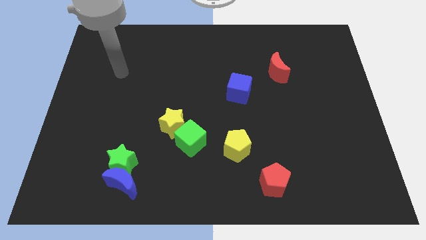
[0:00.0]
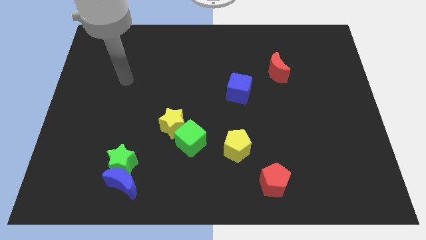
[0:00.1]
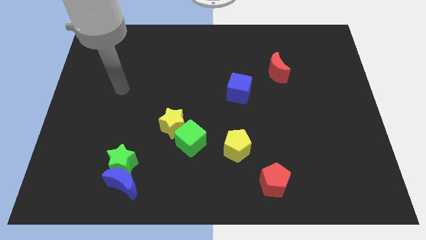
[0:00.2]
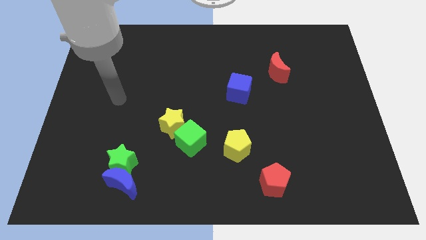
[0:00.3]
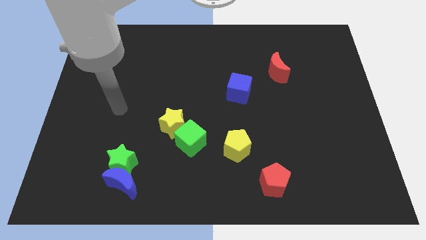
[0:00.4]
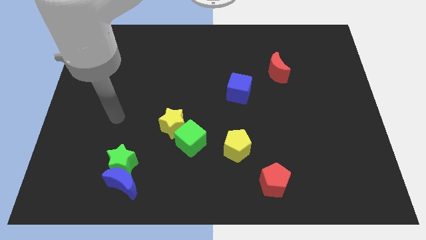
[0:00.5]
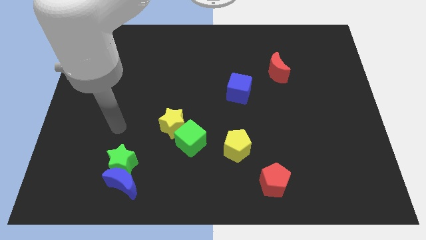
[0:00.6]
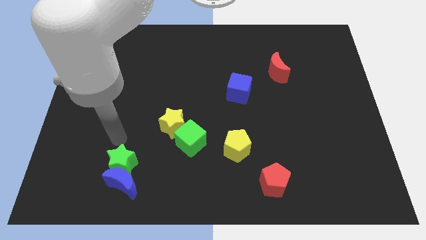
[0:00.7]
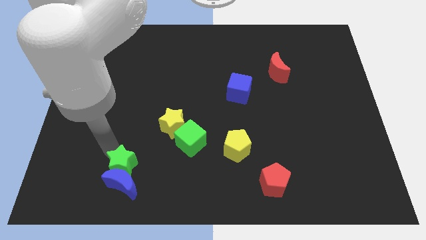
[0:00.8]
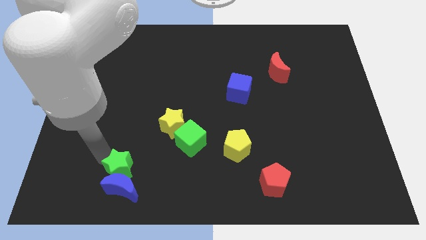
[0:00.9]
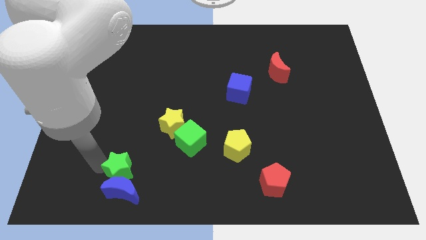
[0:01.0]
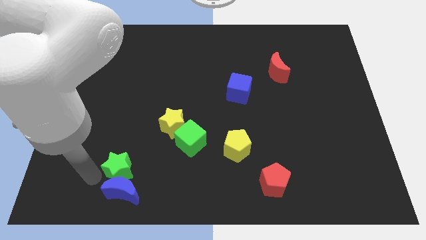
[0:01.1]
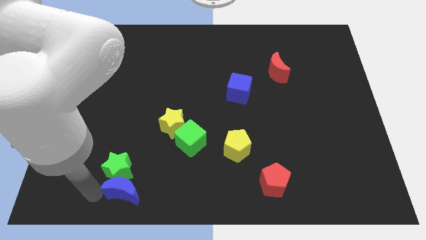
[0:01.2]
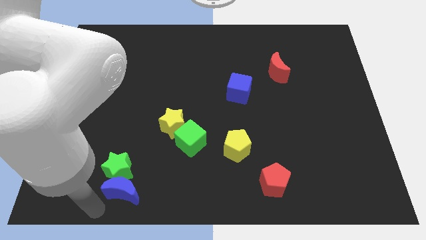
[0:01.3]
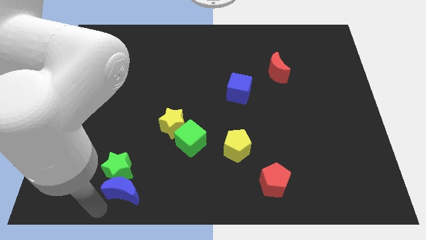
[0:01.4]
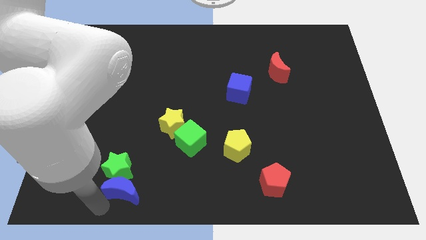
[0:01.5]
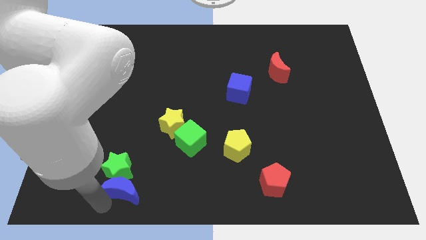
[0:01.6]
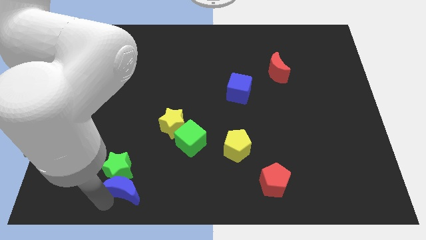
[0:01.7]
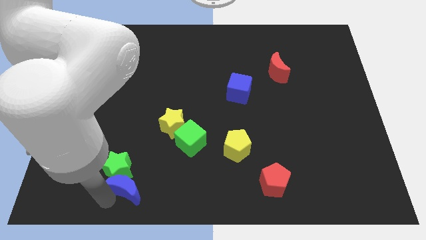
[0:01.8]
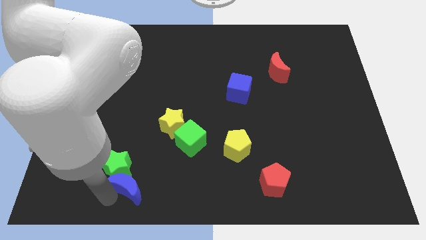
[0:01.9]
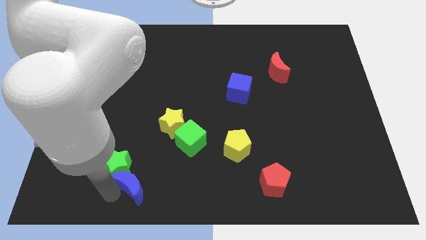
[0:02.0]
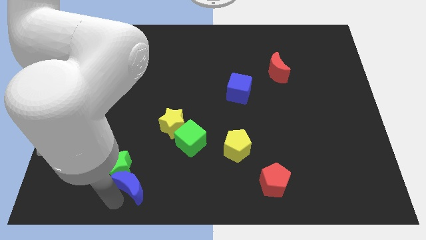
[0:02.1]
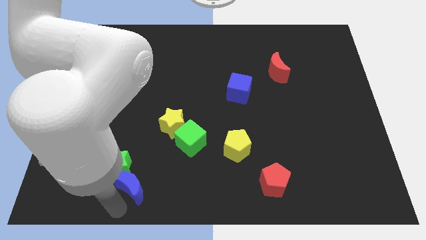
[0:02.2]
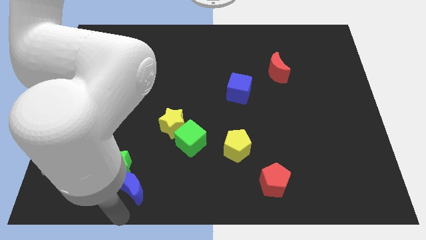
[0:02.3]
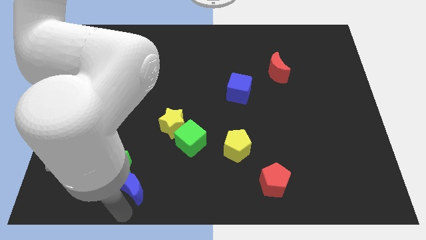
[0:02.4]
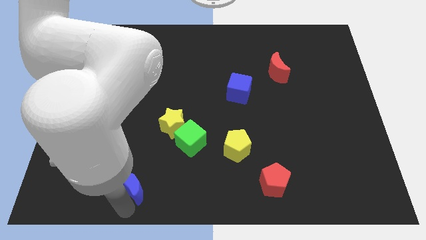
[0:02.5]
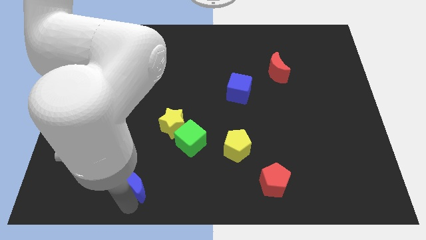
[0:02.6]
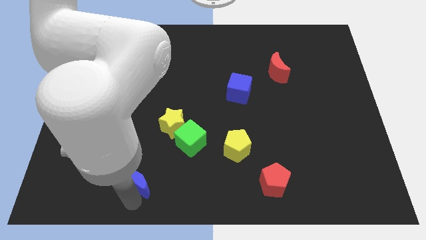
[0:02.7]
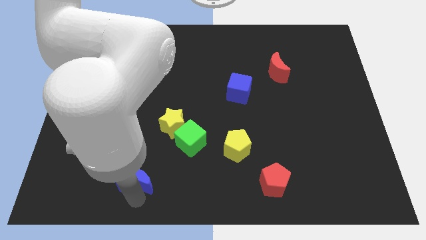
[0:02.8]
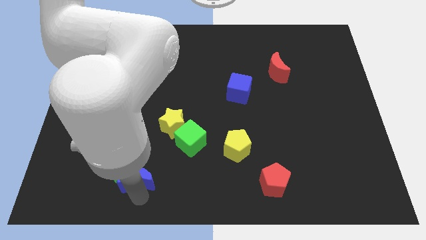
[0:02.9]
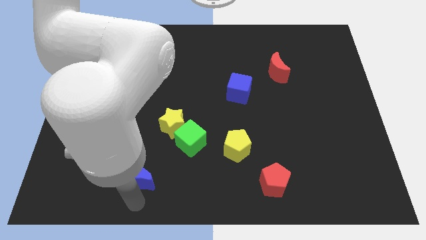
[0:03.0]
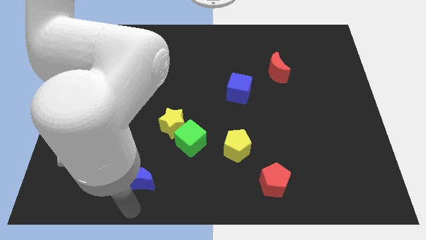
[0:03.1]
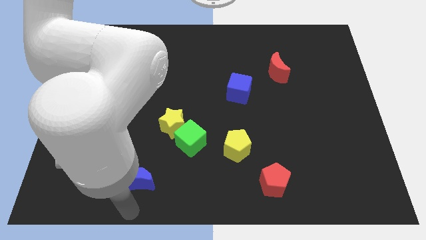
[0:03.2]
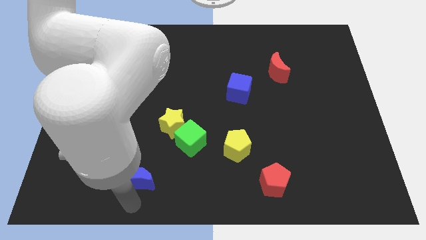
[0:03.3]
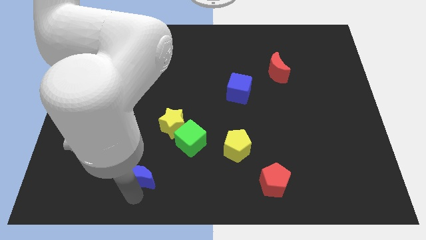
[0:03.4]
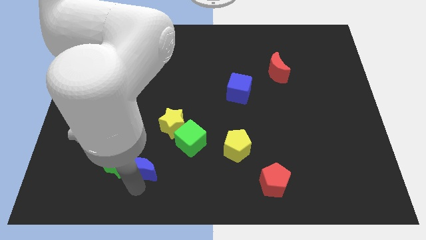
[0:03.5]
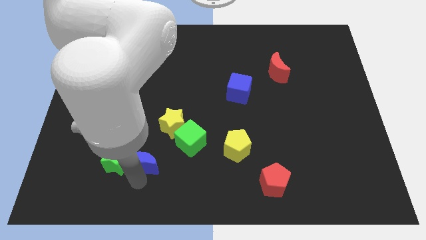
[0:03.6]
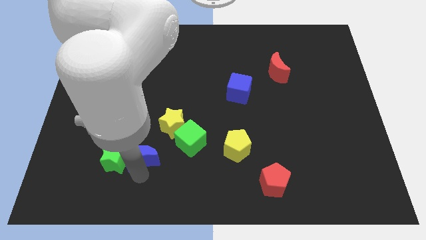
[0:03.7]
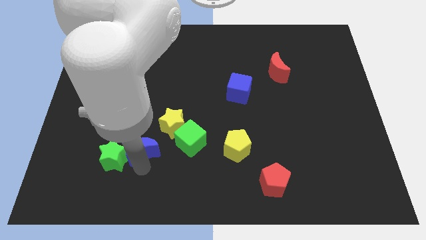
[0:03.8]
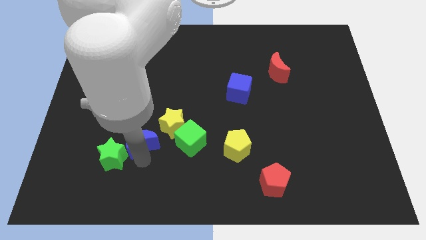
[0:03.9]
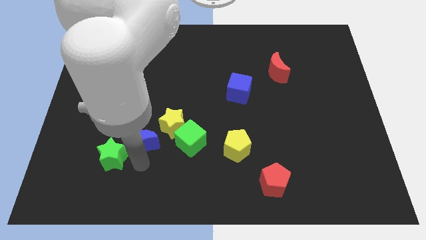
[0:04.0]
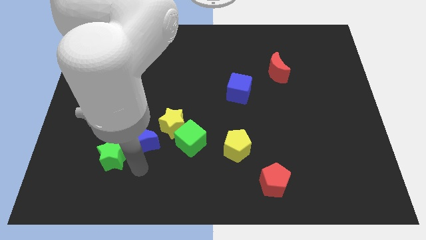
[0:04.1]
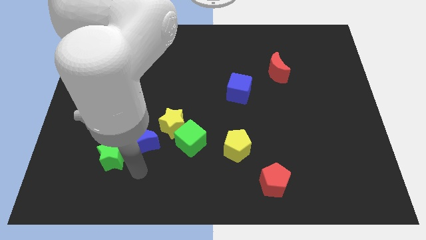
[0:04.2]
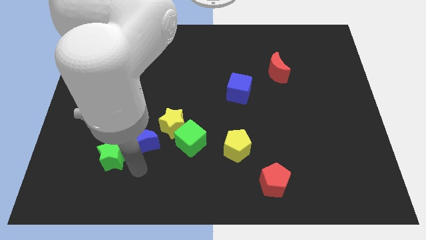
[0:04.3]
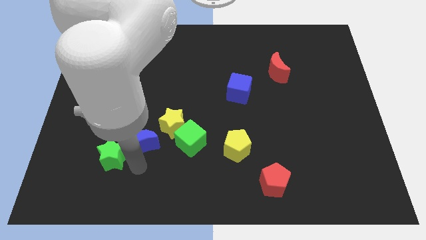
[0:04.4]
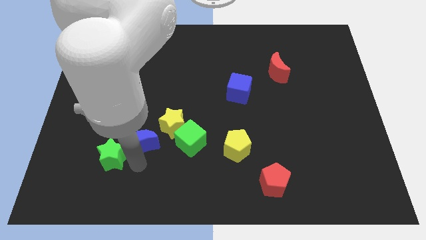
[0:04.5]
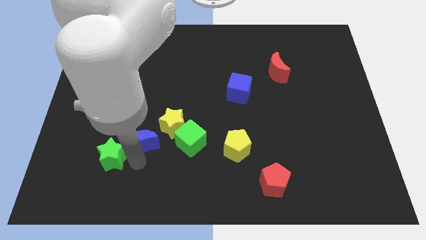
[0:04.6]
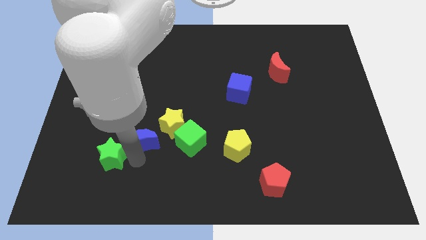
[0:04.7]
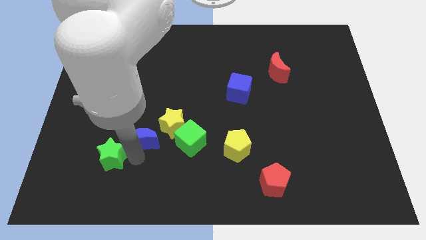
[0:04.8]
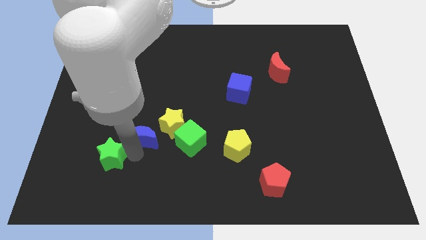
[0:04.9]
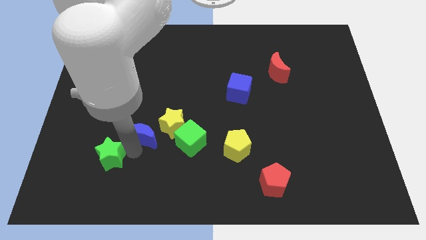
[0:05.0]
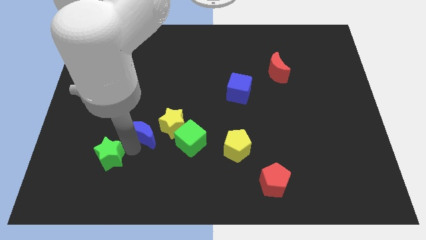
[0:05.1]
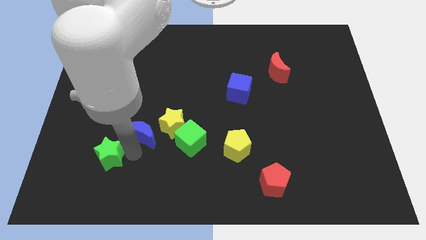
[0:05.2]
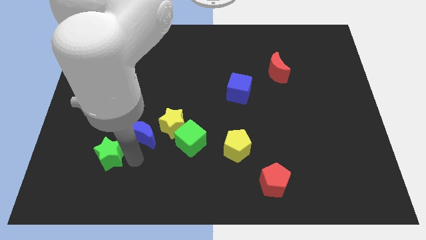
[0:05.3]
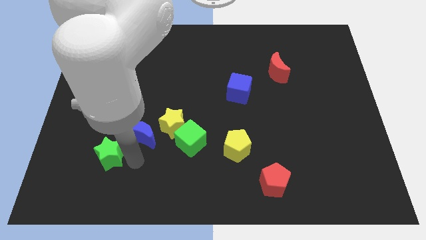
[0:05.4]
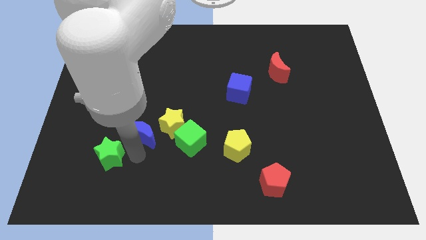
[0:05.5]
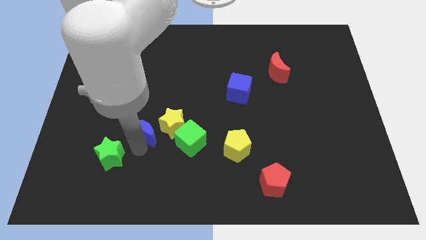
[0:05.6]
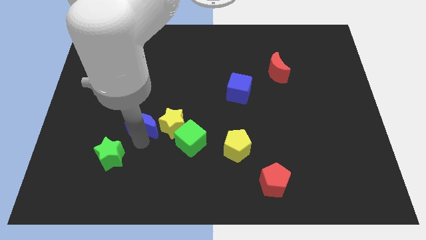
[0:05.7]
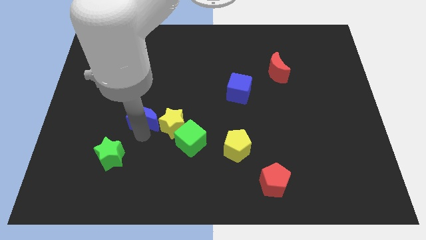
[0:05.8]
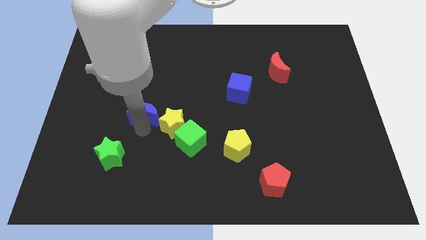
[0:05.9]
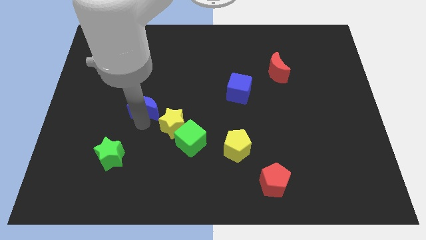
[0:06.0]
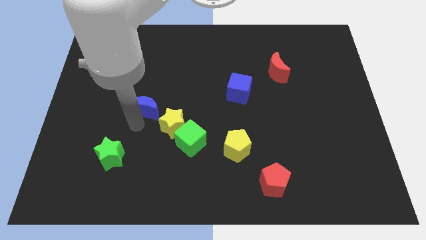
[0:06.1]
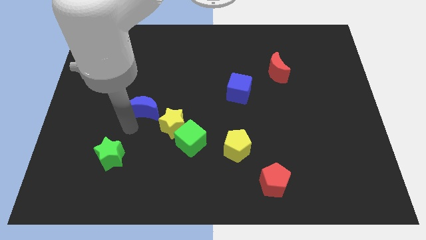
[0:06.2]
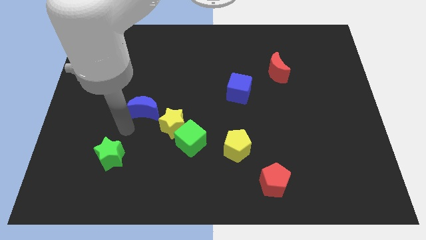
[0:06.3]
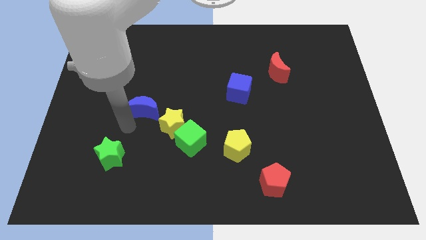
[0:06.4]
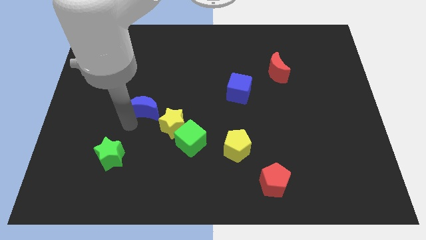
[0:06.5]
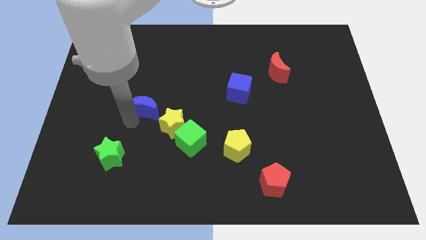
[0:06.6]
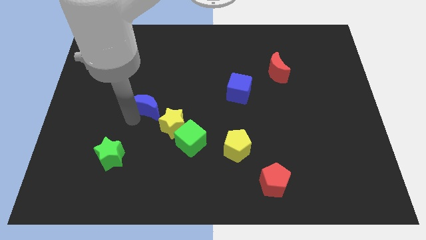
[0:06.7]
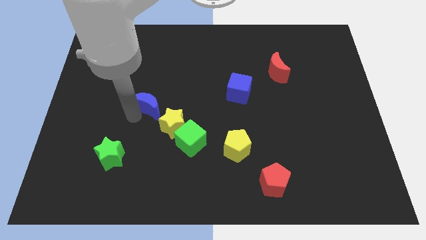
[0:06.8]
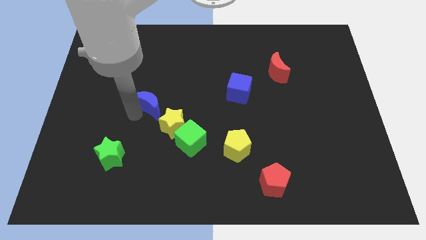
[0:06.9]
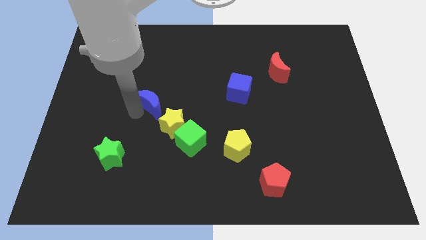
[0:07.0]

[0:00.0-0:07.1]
slide the blue moon upwards

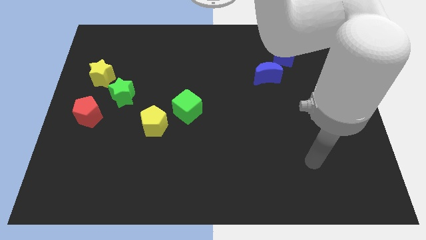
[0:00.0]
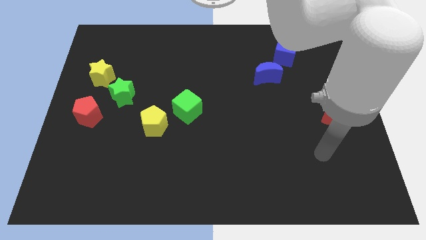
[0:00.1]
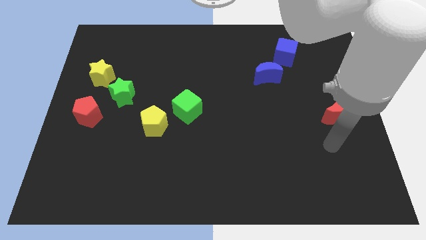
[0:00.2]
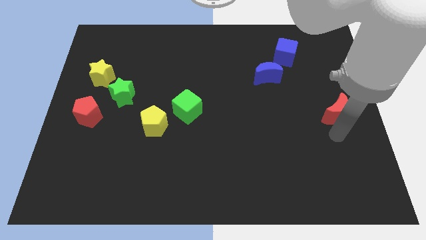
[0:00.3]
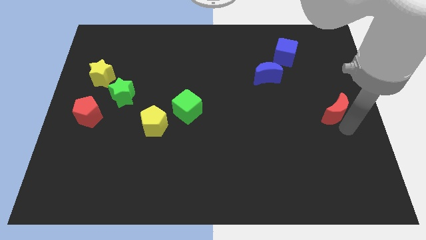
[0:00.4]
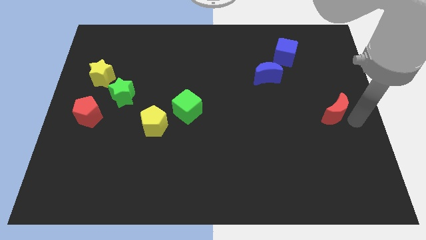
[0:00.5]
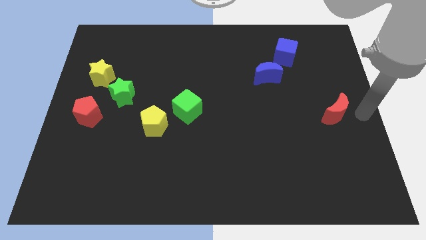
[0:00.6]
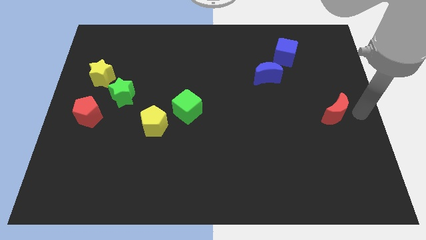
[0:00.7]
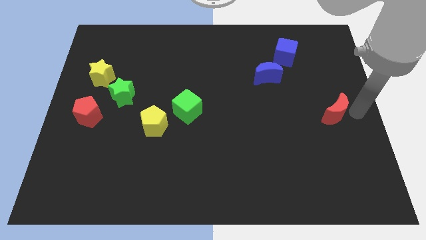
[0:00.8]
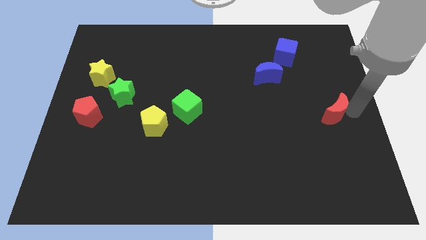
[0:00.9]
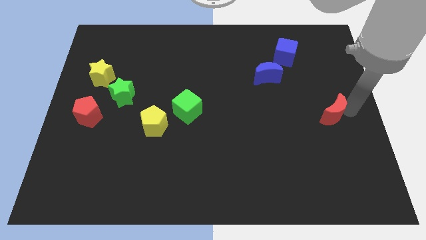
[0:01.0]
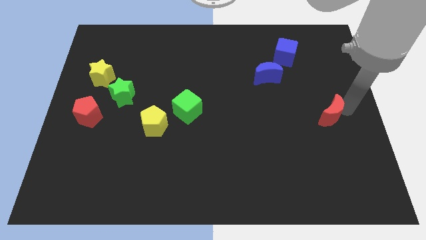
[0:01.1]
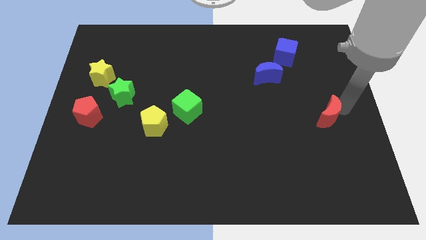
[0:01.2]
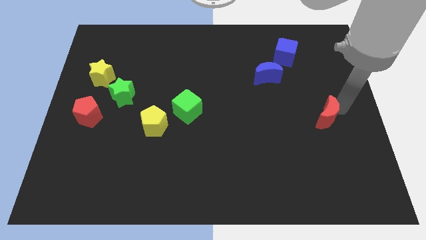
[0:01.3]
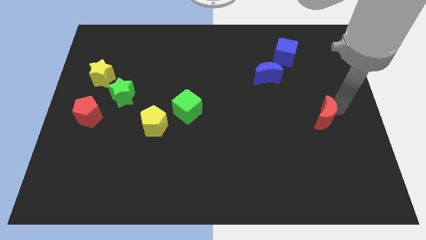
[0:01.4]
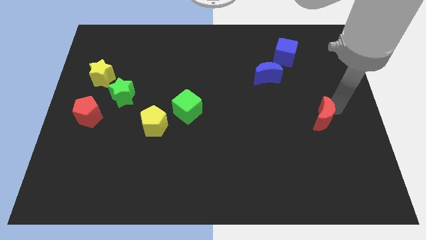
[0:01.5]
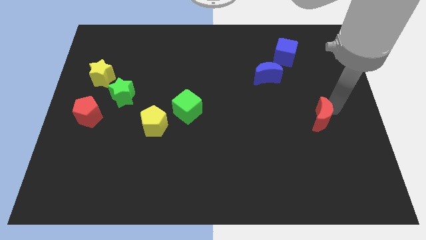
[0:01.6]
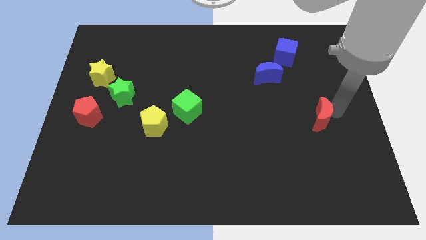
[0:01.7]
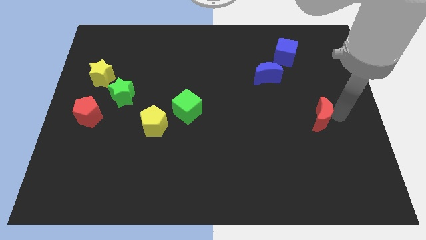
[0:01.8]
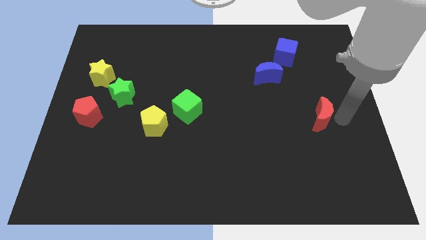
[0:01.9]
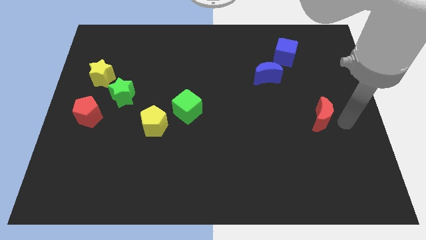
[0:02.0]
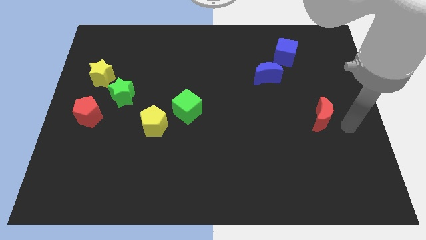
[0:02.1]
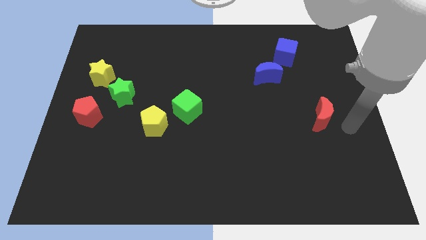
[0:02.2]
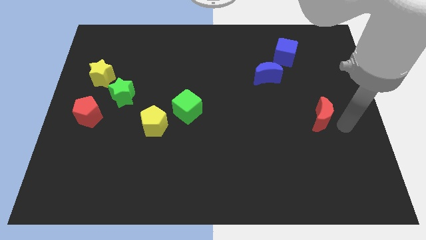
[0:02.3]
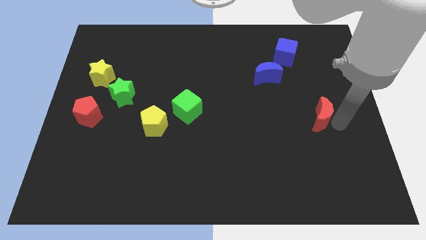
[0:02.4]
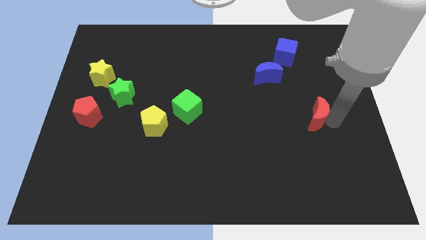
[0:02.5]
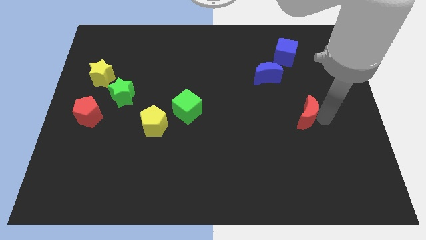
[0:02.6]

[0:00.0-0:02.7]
slightly move the red moon to the left
